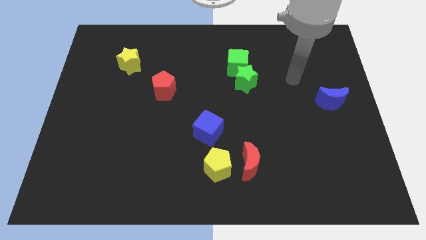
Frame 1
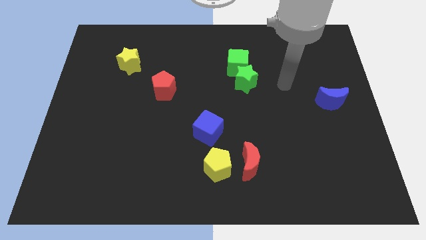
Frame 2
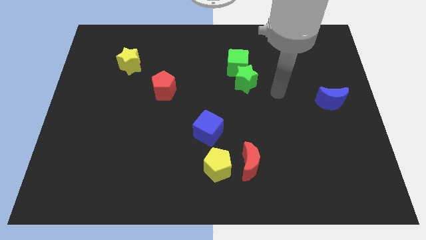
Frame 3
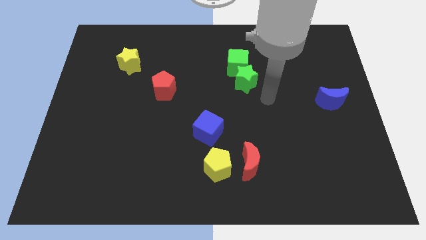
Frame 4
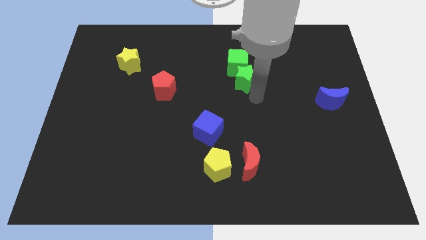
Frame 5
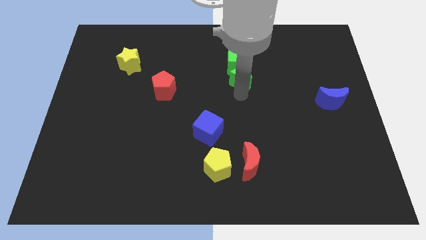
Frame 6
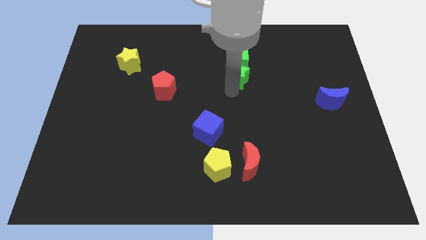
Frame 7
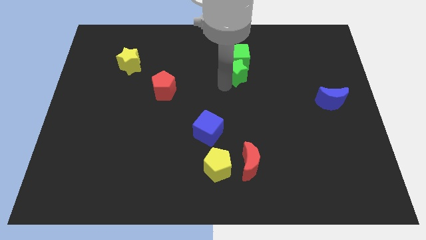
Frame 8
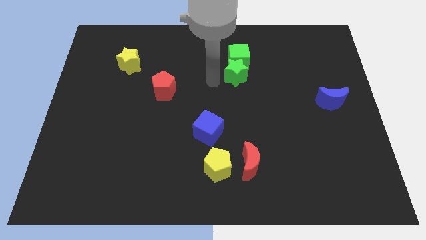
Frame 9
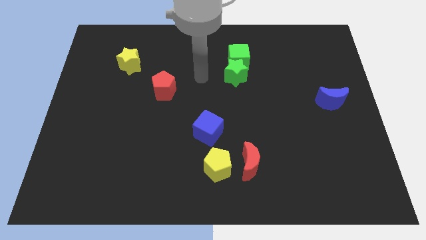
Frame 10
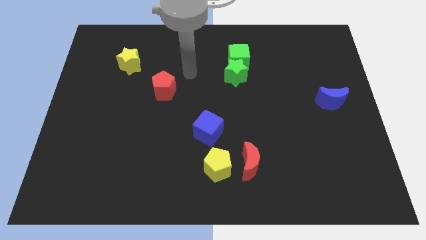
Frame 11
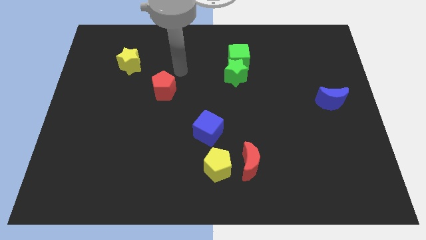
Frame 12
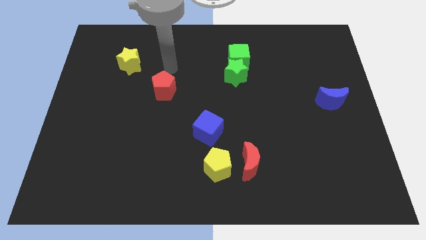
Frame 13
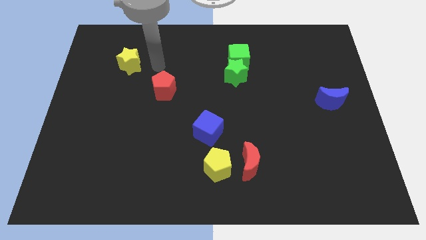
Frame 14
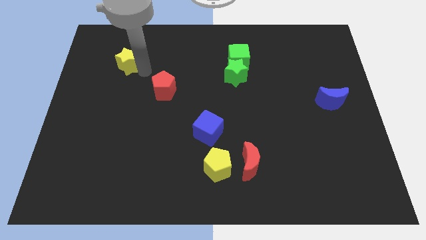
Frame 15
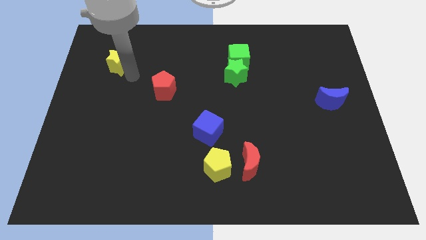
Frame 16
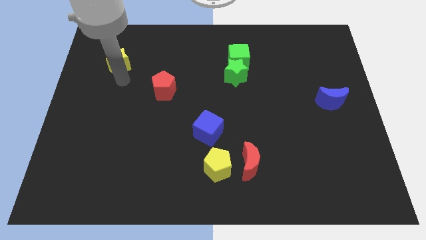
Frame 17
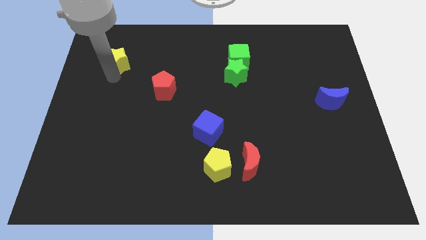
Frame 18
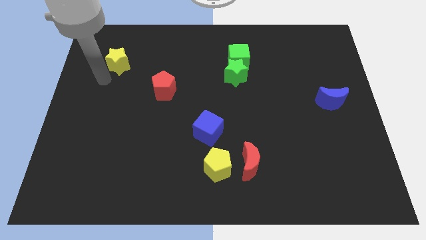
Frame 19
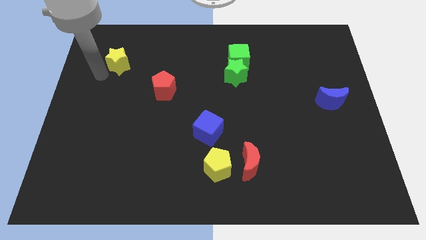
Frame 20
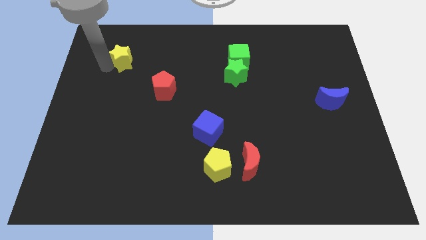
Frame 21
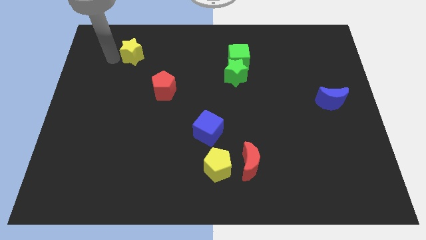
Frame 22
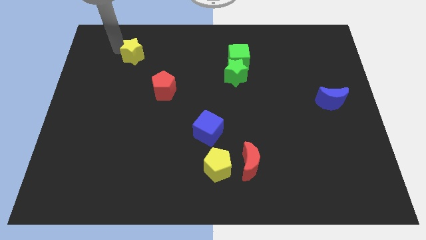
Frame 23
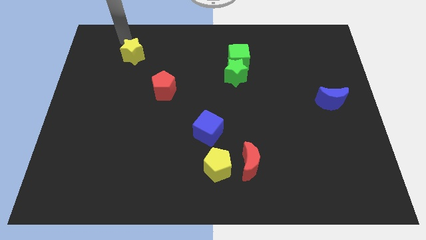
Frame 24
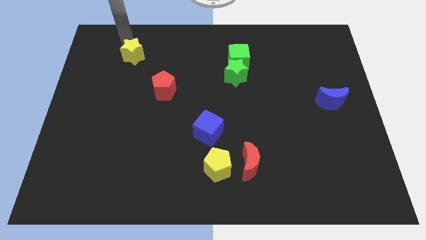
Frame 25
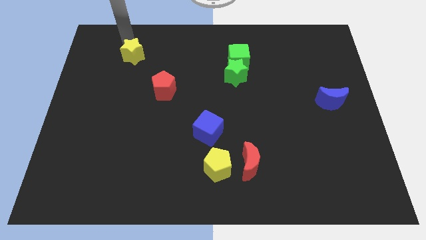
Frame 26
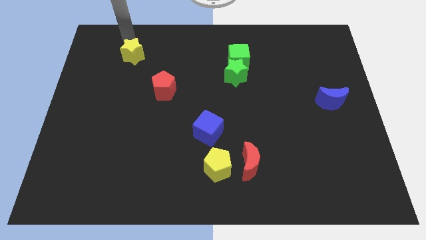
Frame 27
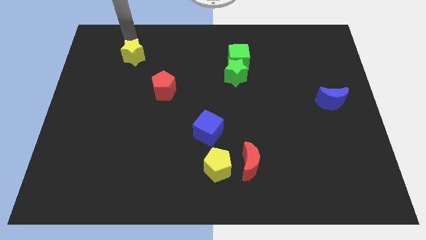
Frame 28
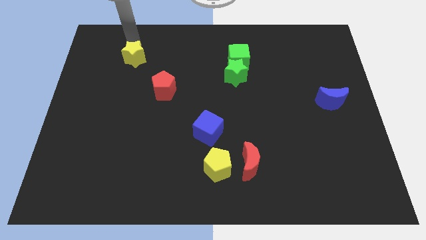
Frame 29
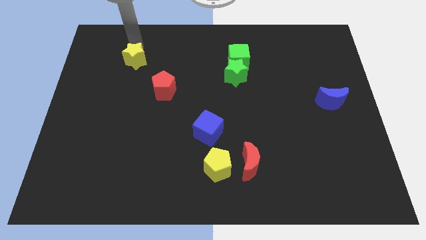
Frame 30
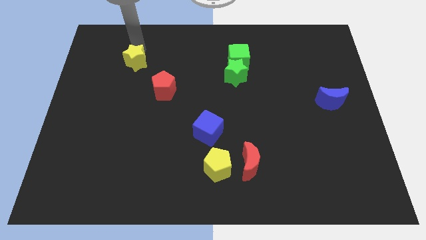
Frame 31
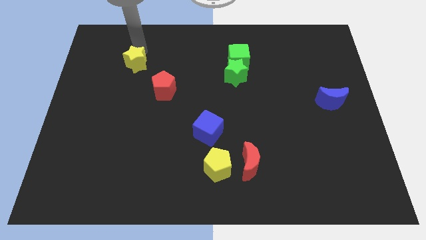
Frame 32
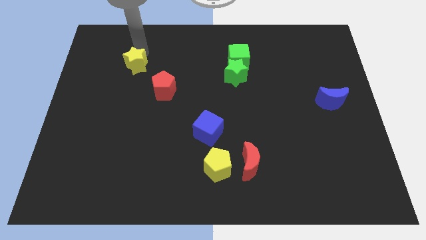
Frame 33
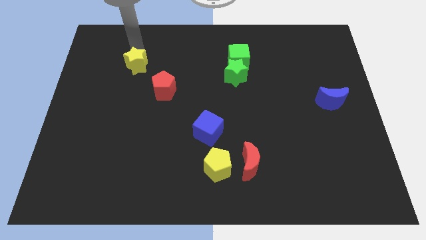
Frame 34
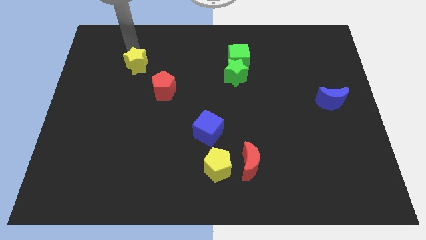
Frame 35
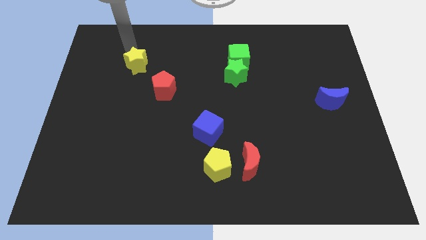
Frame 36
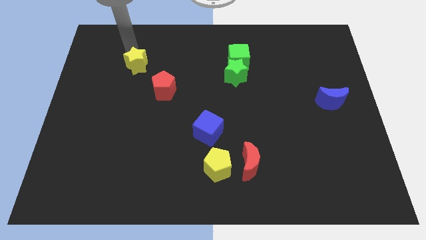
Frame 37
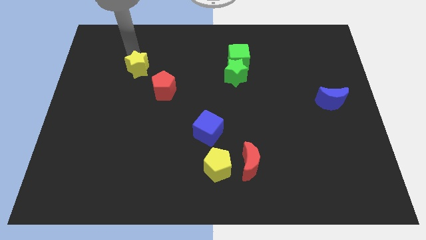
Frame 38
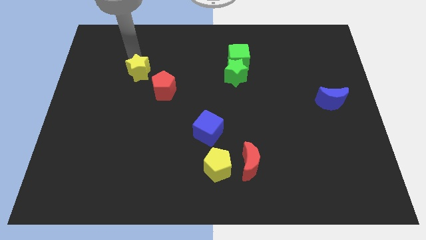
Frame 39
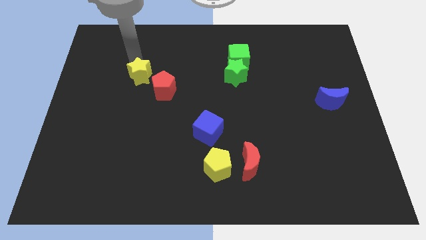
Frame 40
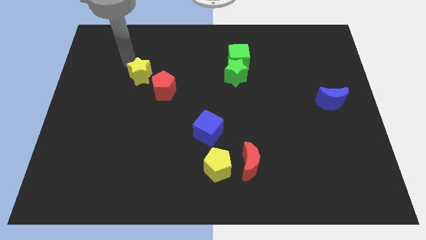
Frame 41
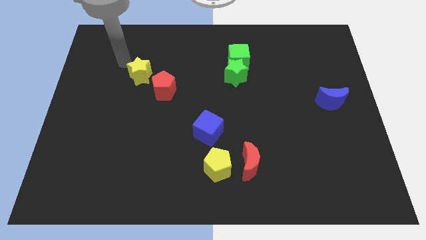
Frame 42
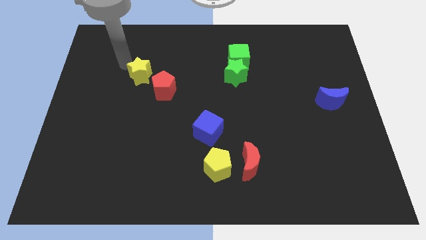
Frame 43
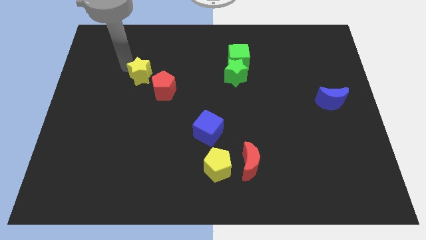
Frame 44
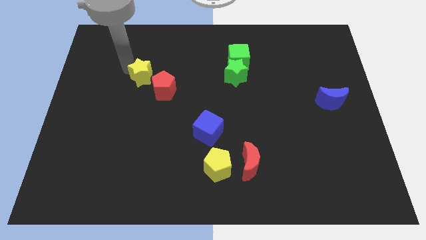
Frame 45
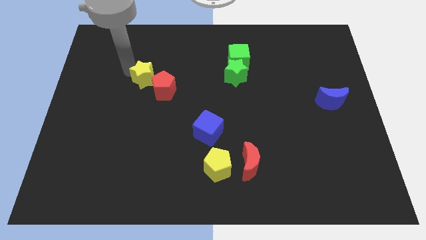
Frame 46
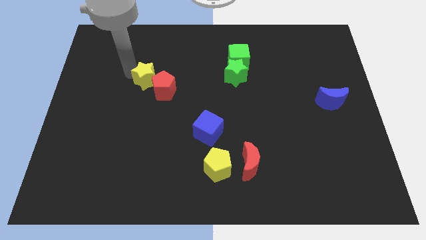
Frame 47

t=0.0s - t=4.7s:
slide the yellow star towards the red pentagon

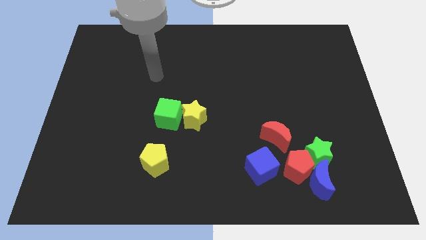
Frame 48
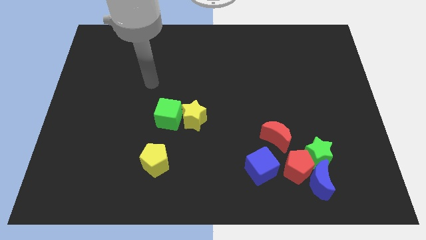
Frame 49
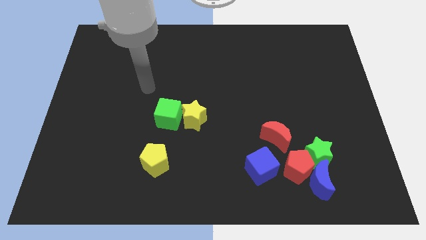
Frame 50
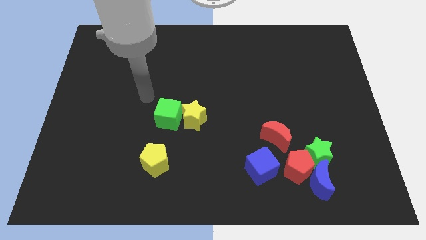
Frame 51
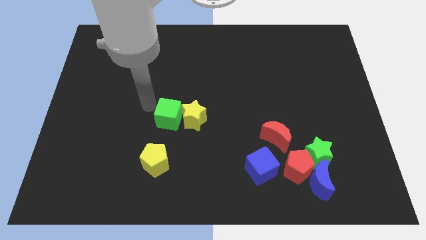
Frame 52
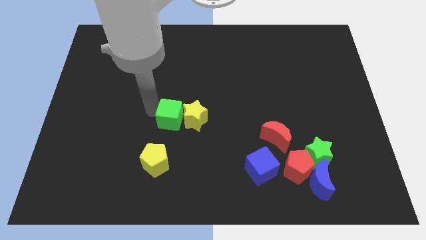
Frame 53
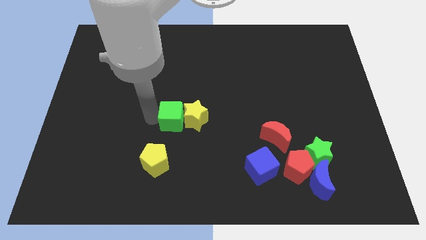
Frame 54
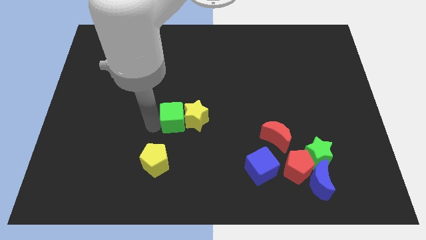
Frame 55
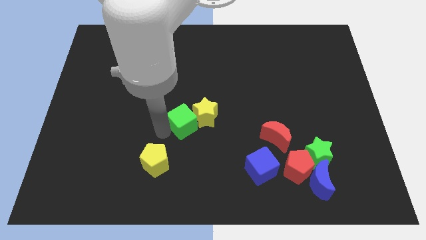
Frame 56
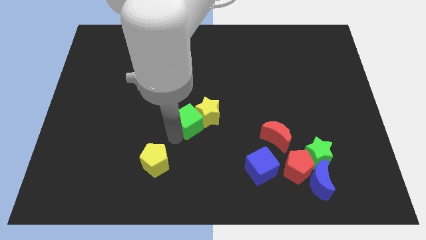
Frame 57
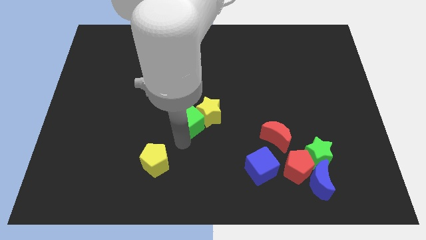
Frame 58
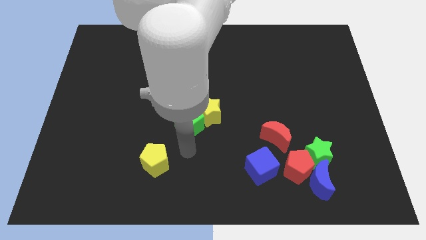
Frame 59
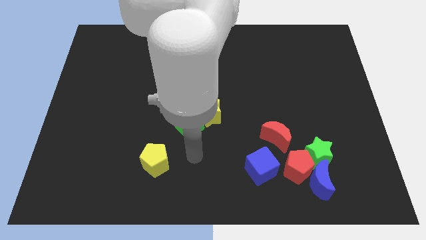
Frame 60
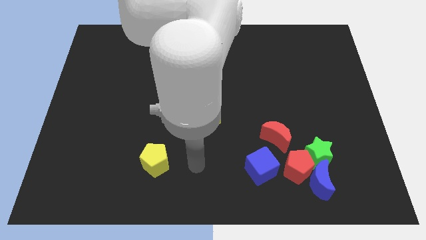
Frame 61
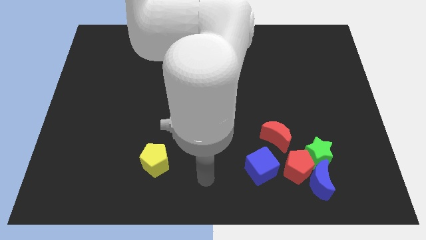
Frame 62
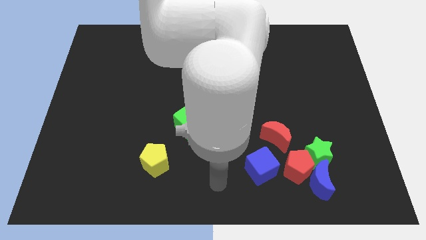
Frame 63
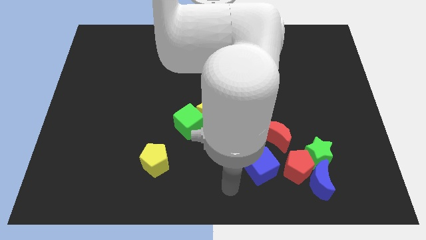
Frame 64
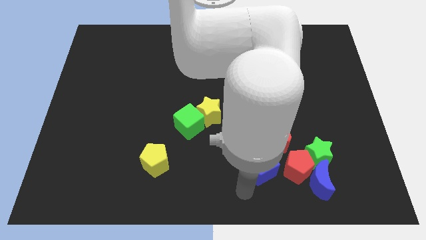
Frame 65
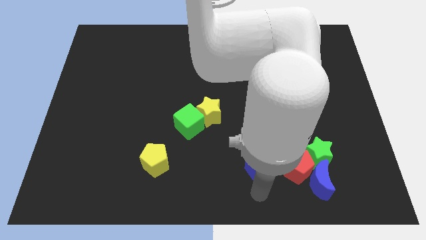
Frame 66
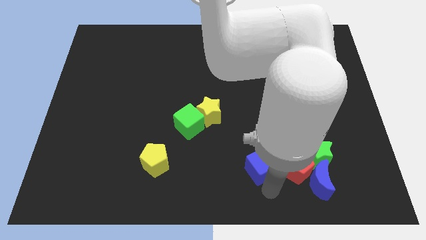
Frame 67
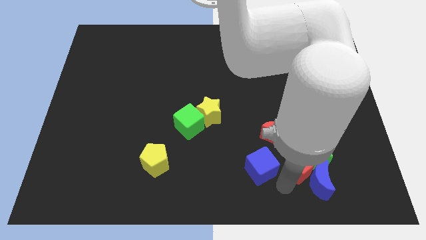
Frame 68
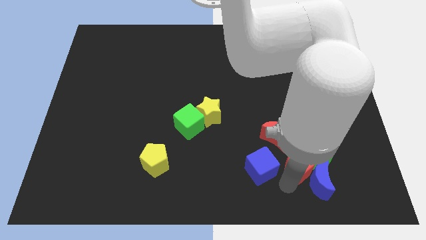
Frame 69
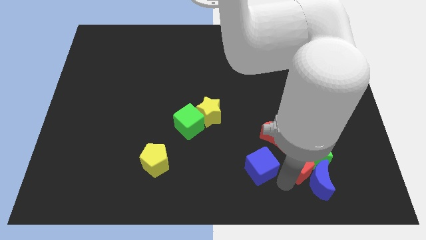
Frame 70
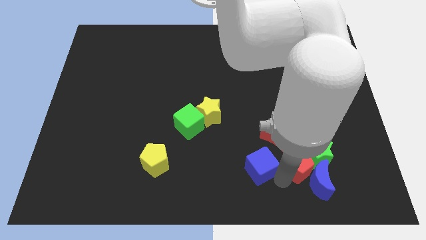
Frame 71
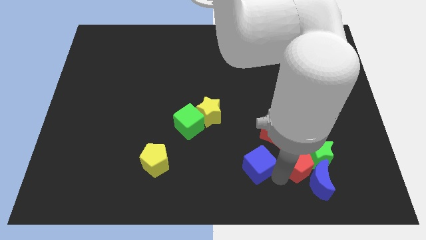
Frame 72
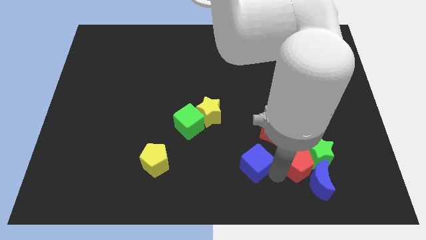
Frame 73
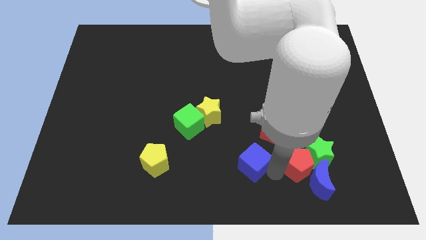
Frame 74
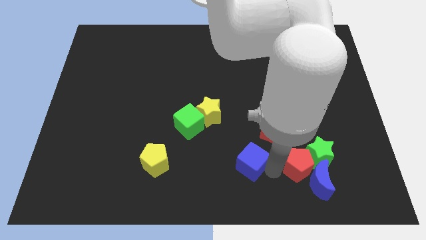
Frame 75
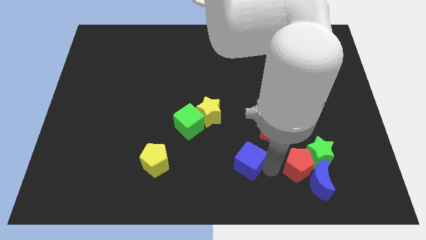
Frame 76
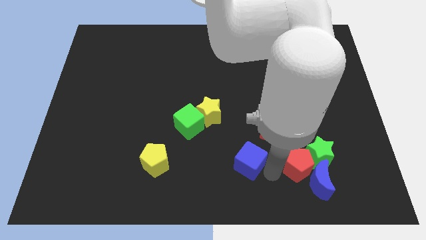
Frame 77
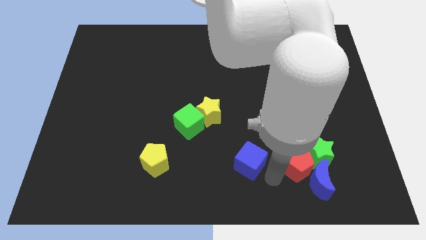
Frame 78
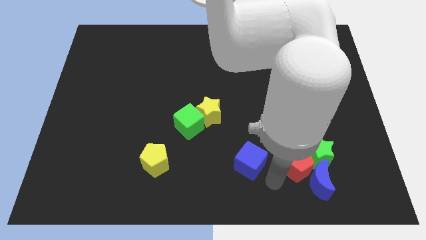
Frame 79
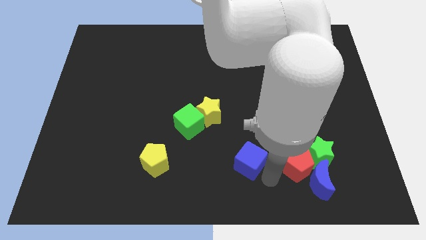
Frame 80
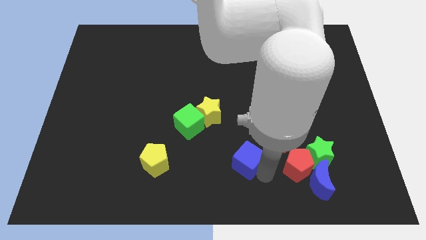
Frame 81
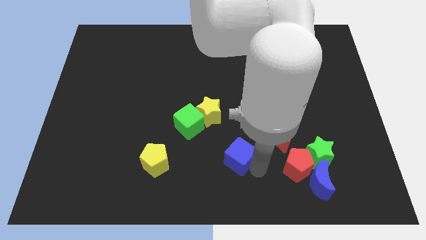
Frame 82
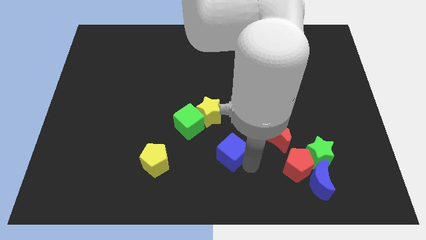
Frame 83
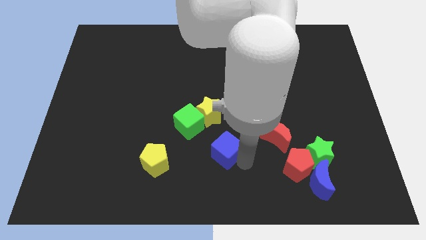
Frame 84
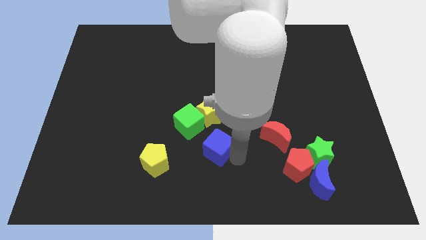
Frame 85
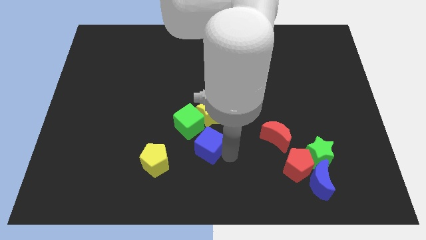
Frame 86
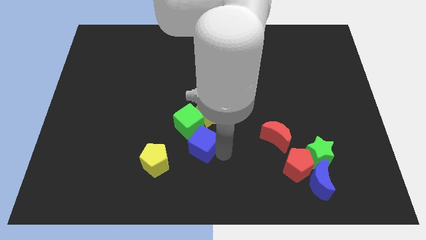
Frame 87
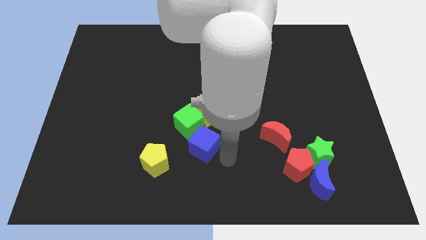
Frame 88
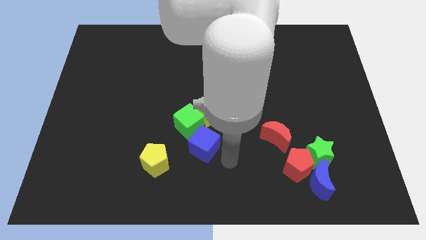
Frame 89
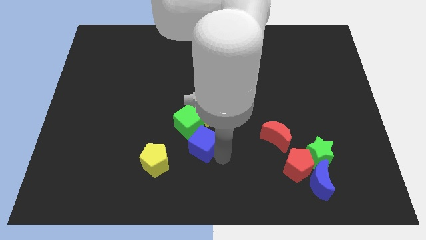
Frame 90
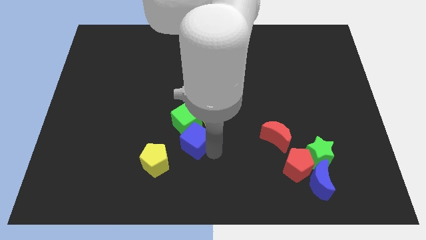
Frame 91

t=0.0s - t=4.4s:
slide the blue cube next to the green cube
